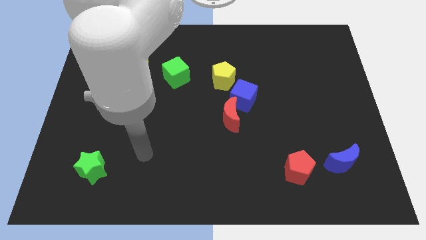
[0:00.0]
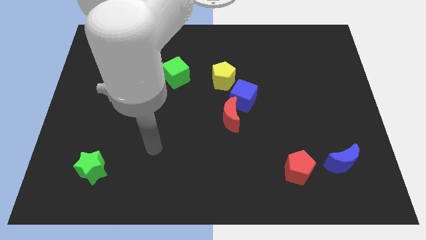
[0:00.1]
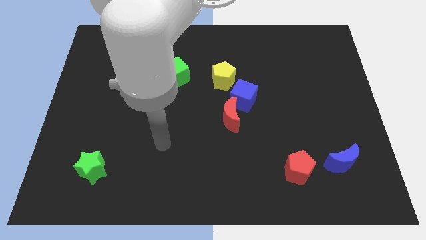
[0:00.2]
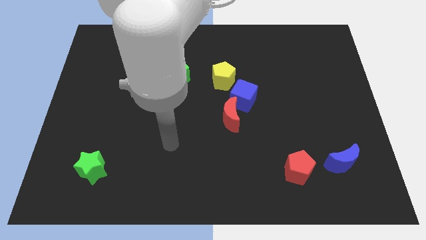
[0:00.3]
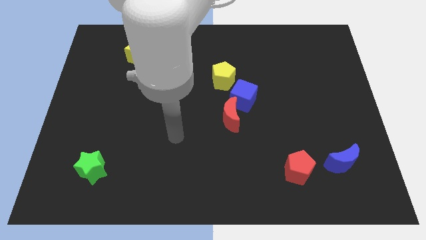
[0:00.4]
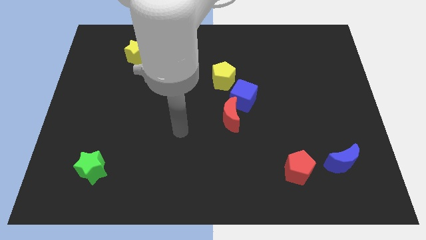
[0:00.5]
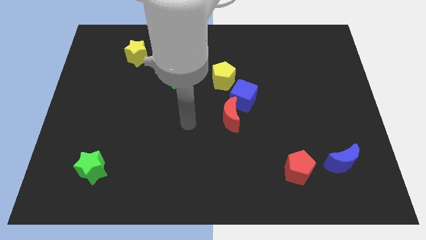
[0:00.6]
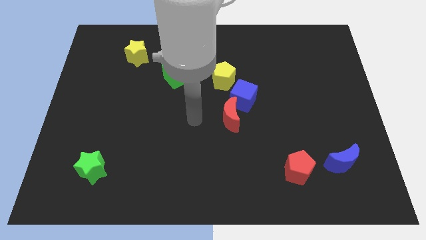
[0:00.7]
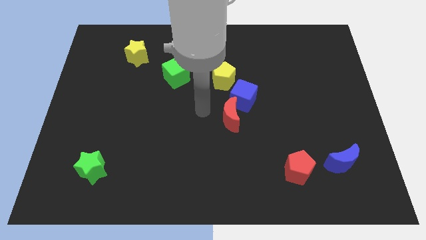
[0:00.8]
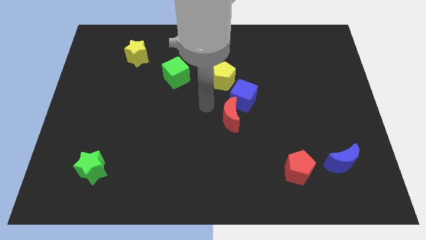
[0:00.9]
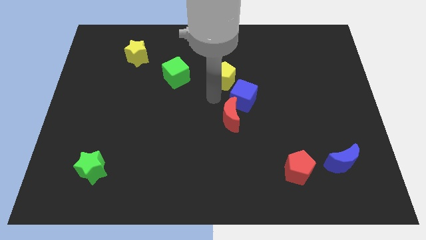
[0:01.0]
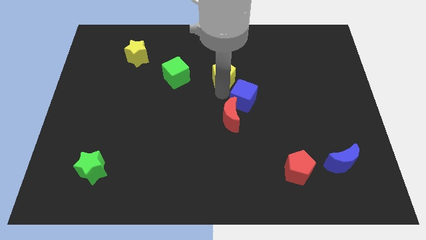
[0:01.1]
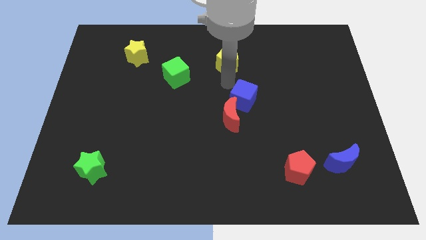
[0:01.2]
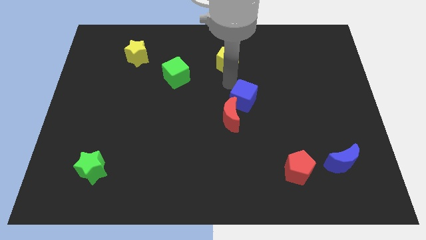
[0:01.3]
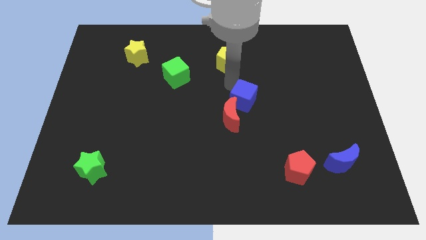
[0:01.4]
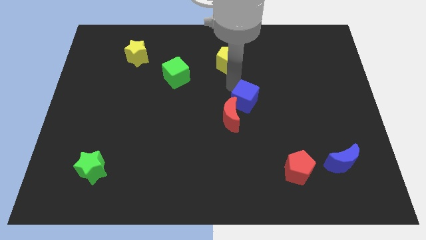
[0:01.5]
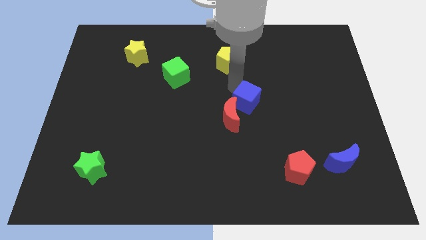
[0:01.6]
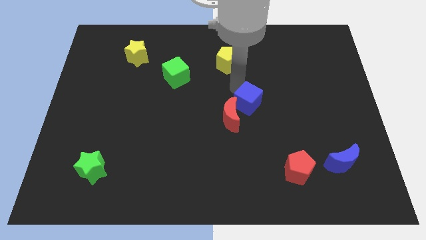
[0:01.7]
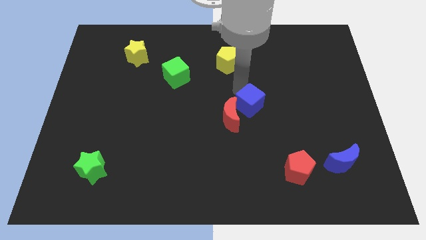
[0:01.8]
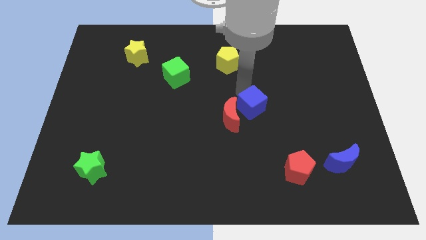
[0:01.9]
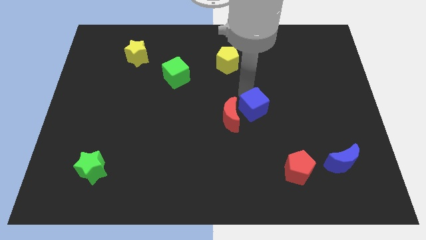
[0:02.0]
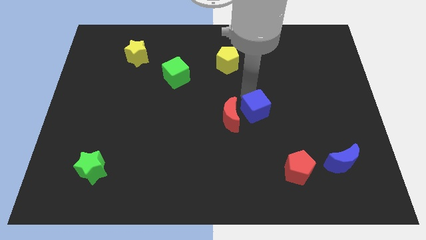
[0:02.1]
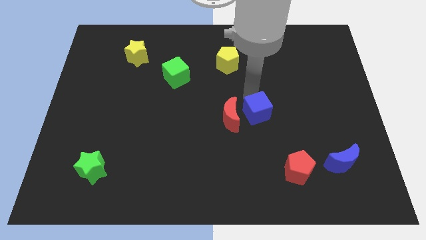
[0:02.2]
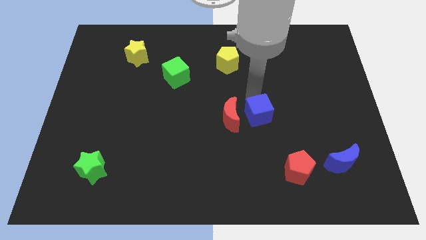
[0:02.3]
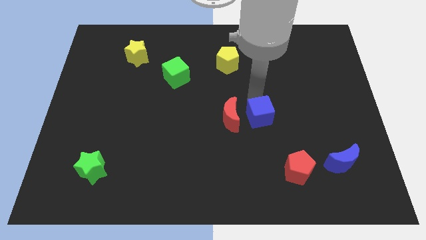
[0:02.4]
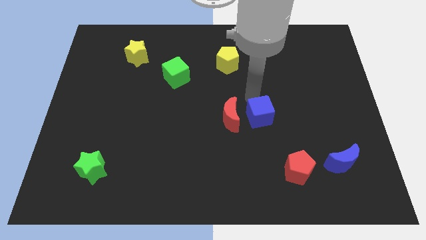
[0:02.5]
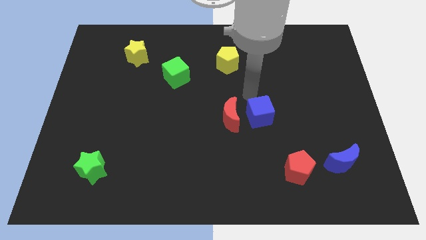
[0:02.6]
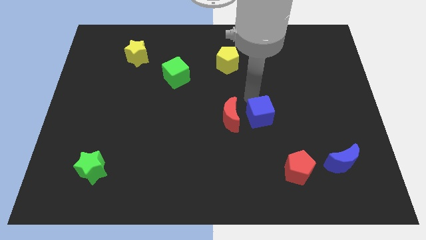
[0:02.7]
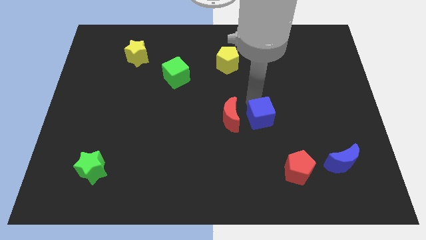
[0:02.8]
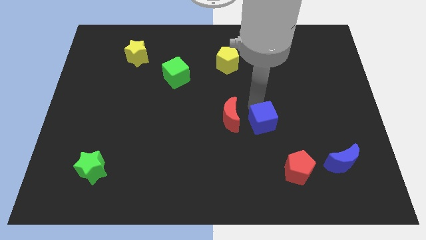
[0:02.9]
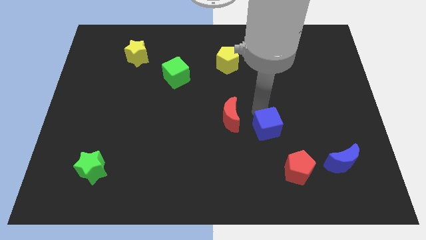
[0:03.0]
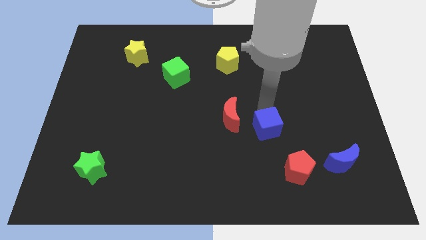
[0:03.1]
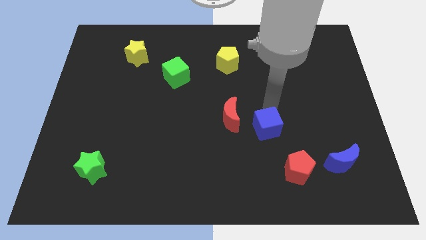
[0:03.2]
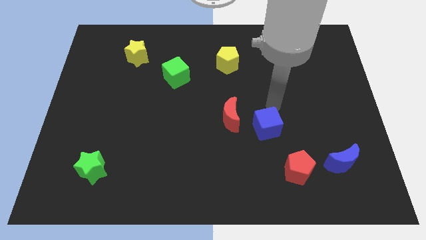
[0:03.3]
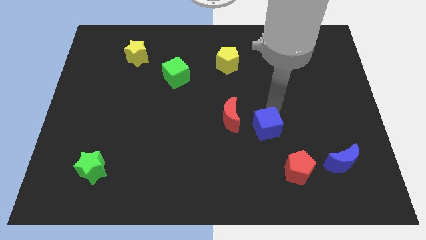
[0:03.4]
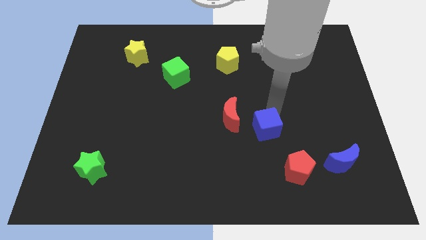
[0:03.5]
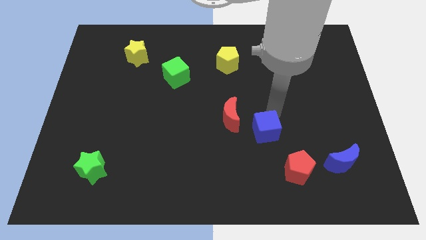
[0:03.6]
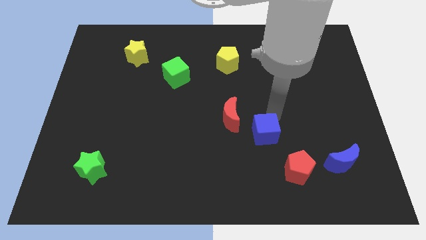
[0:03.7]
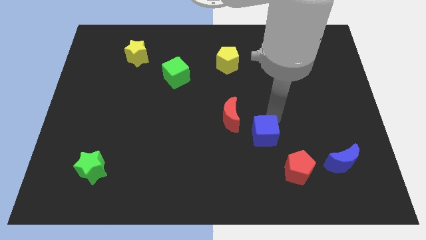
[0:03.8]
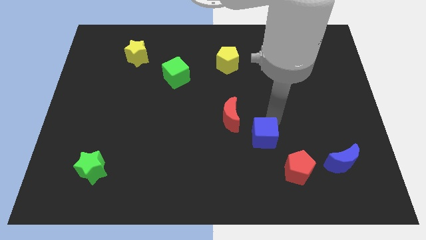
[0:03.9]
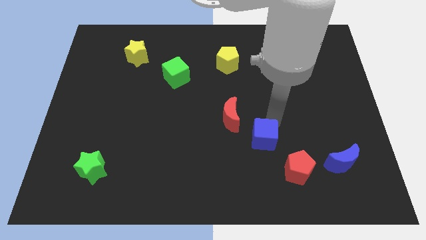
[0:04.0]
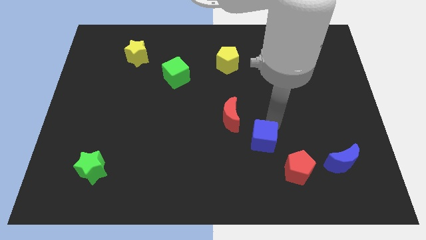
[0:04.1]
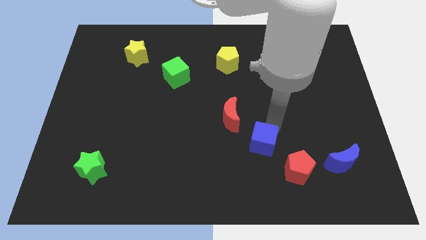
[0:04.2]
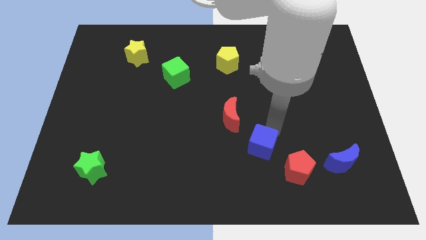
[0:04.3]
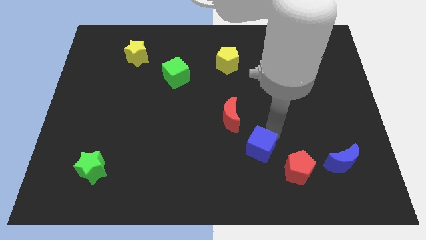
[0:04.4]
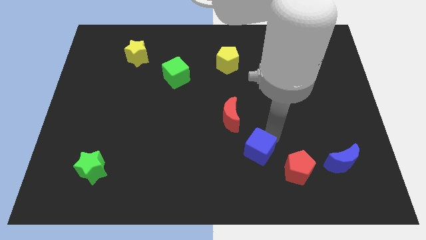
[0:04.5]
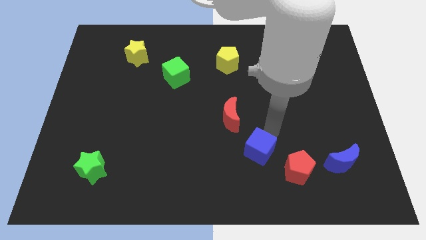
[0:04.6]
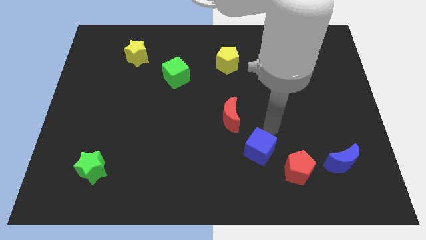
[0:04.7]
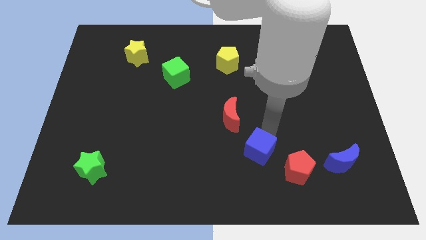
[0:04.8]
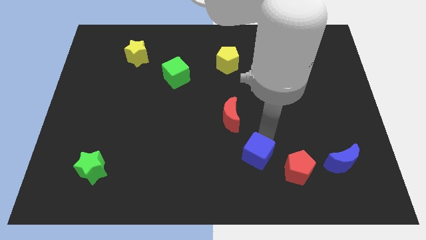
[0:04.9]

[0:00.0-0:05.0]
move the blue cube left of the red pentagon

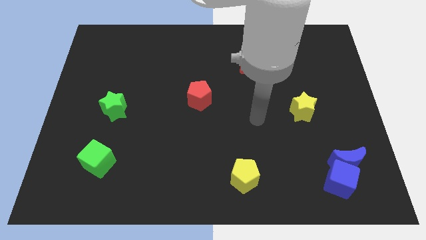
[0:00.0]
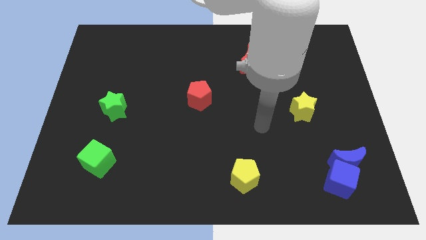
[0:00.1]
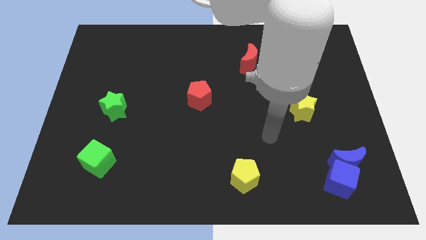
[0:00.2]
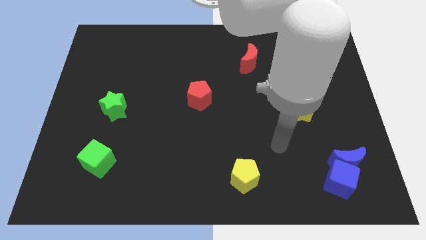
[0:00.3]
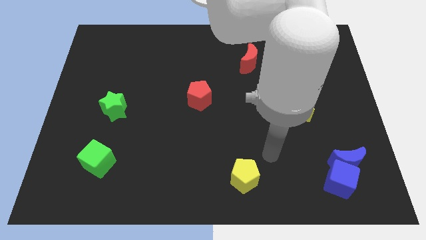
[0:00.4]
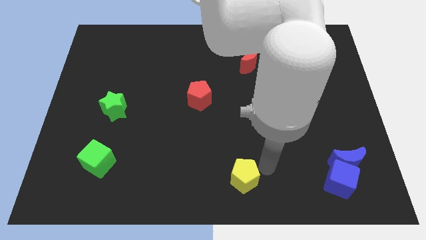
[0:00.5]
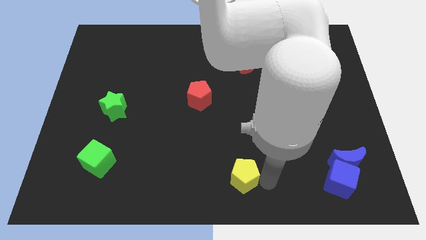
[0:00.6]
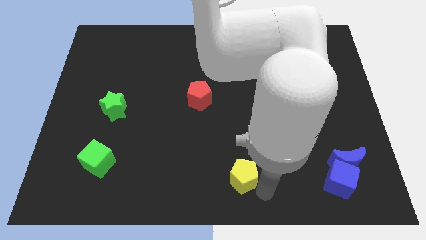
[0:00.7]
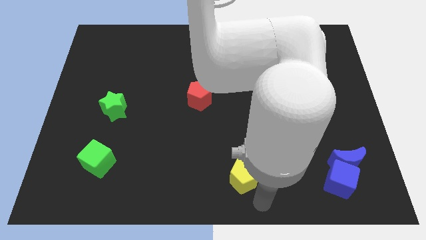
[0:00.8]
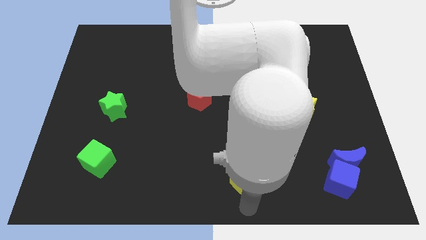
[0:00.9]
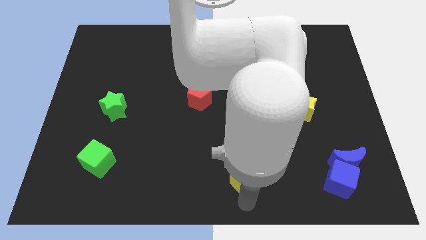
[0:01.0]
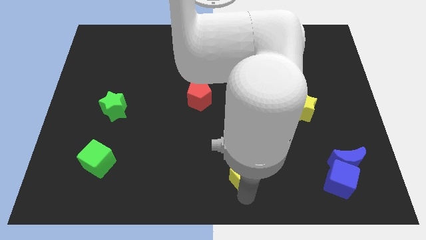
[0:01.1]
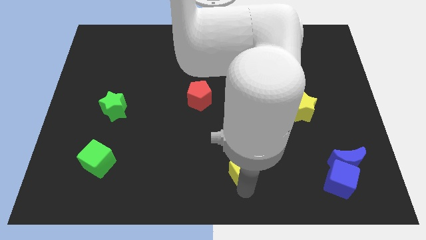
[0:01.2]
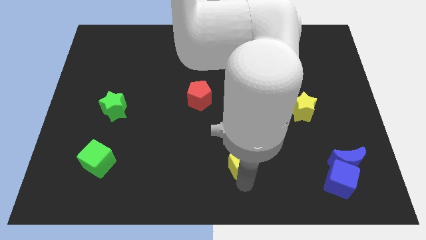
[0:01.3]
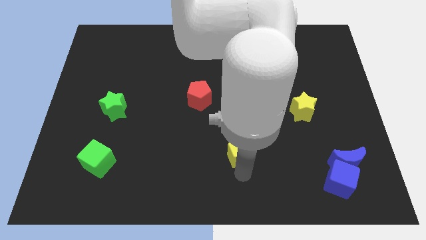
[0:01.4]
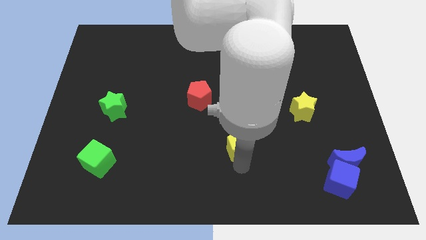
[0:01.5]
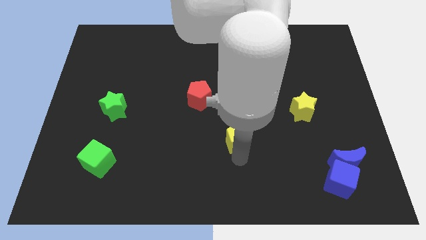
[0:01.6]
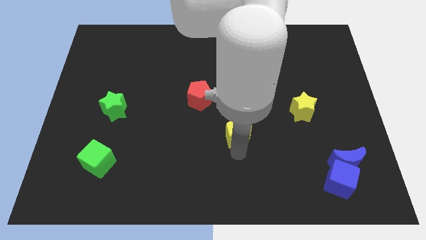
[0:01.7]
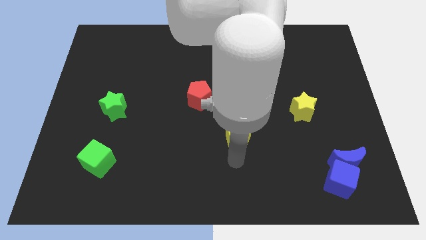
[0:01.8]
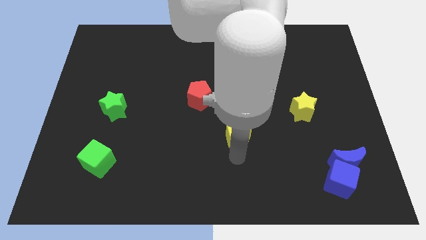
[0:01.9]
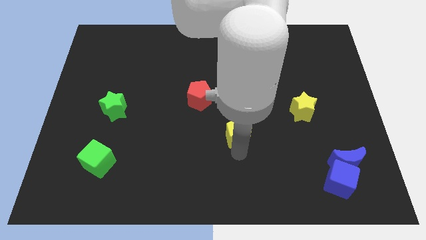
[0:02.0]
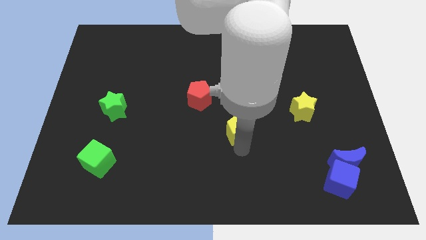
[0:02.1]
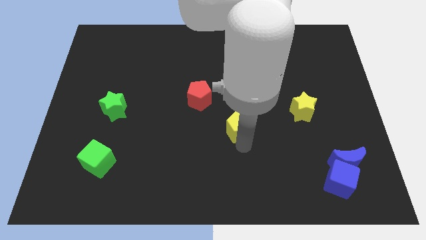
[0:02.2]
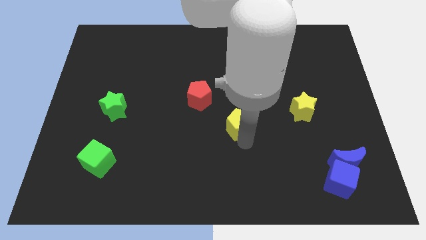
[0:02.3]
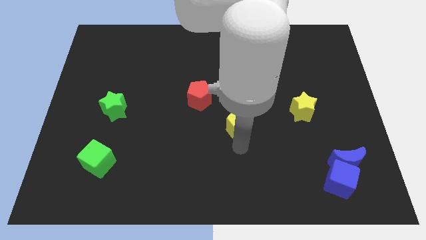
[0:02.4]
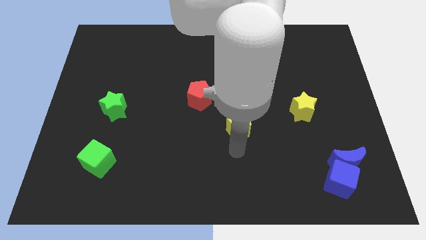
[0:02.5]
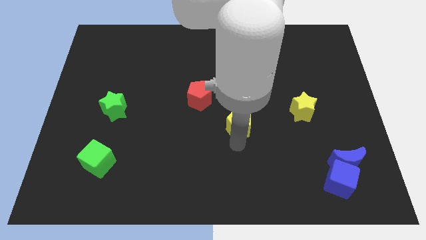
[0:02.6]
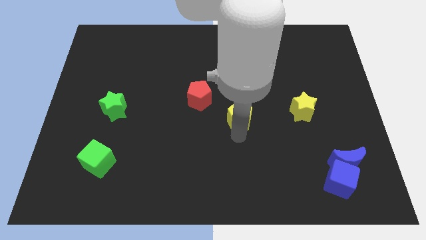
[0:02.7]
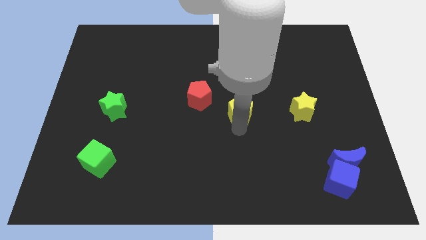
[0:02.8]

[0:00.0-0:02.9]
slide the yellow pentagon to the right side of the red pentagon
